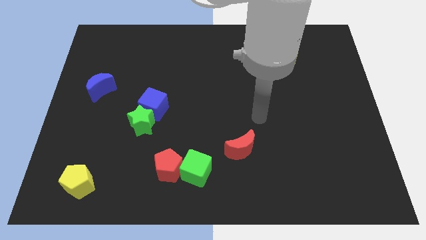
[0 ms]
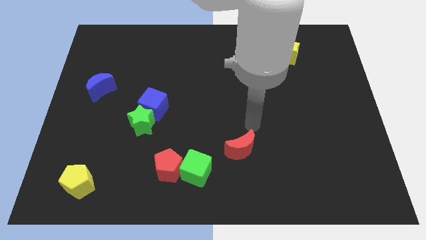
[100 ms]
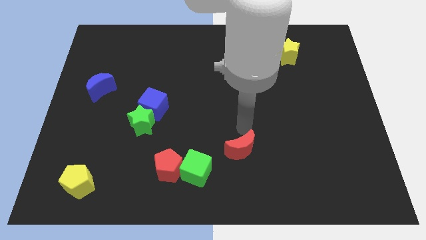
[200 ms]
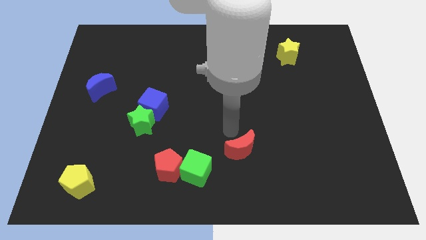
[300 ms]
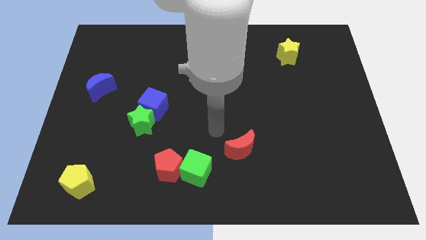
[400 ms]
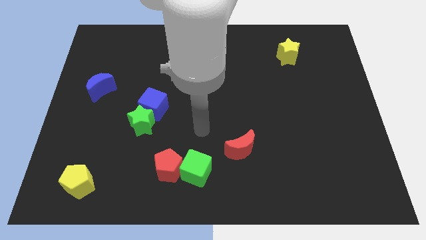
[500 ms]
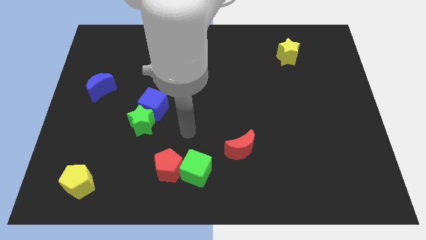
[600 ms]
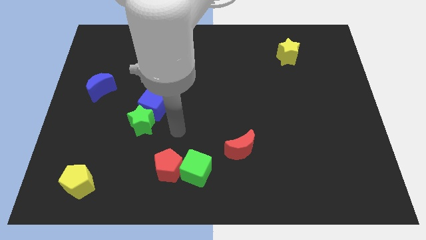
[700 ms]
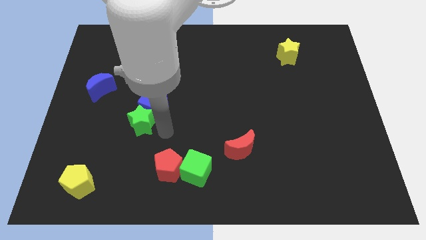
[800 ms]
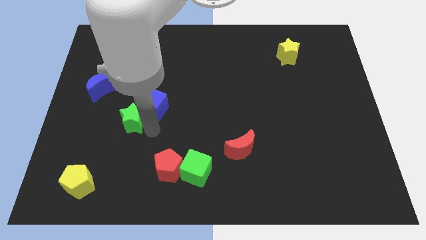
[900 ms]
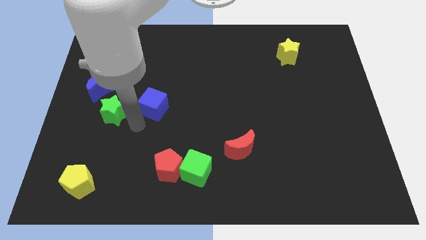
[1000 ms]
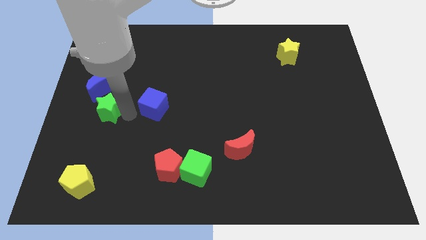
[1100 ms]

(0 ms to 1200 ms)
pull the blue cube apart from the green star

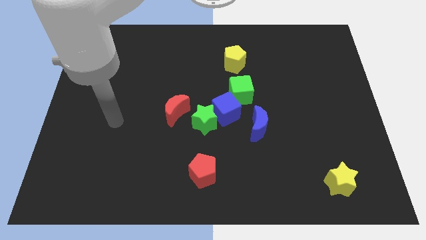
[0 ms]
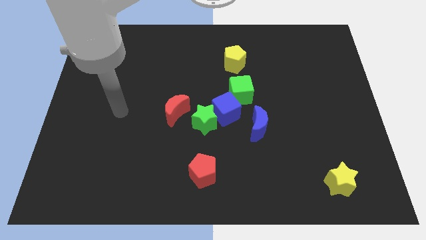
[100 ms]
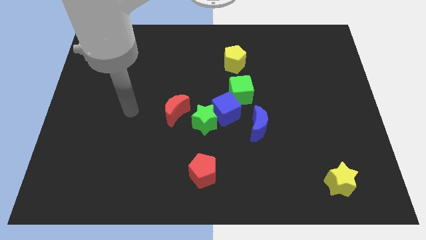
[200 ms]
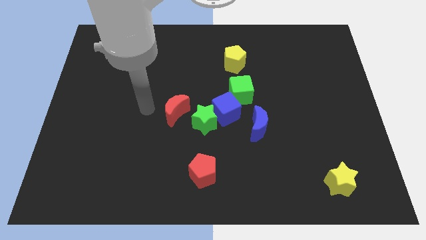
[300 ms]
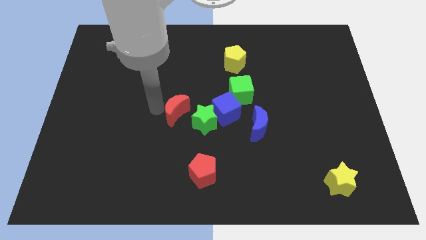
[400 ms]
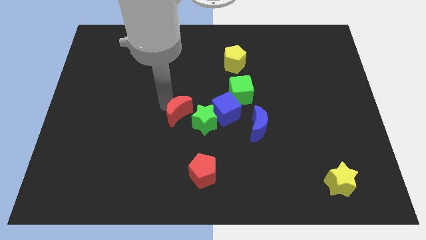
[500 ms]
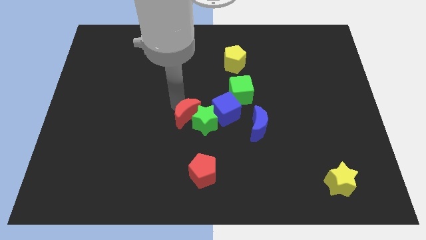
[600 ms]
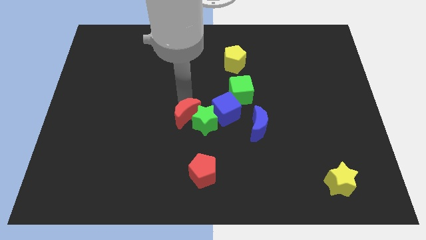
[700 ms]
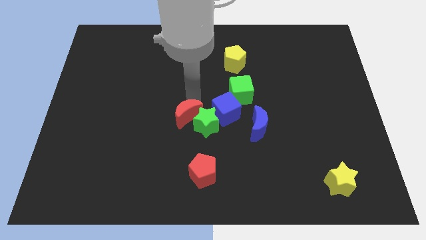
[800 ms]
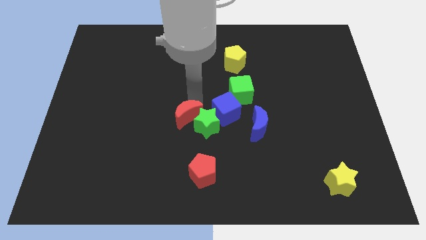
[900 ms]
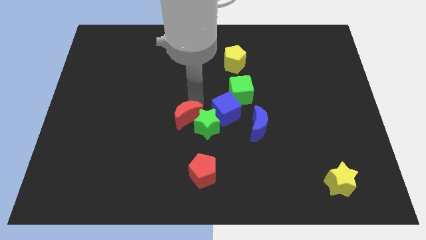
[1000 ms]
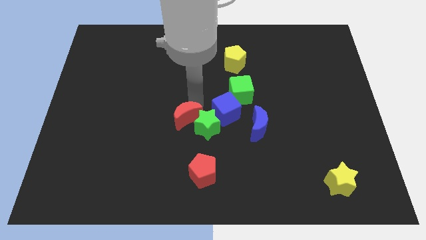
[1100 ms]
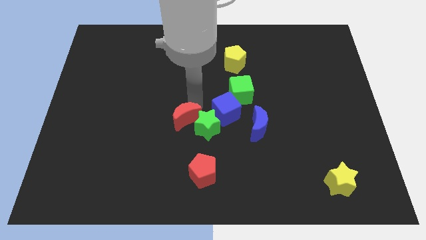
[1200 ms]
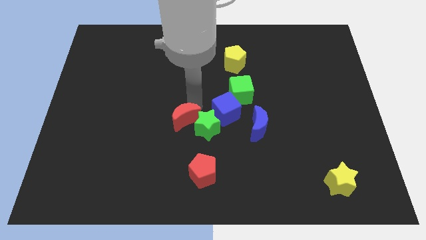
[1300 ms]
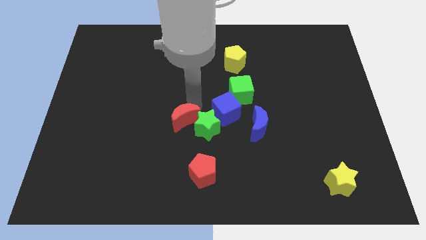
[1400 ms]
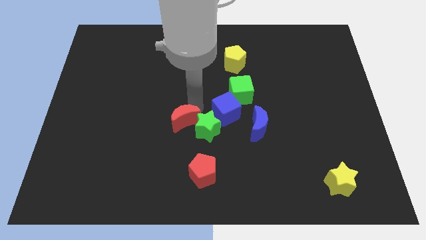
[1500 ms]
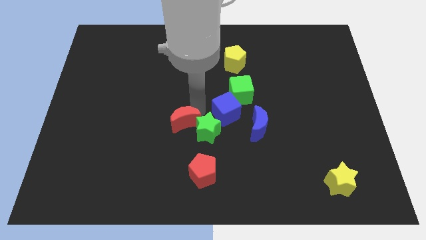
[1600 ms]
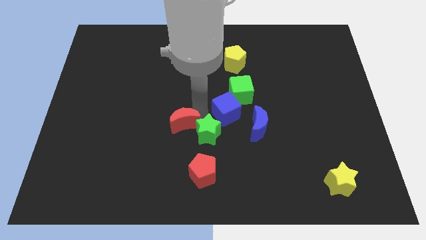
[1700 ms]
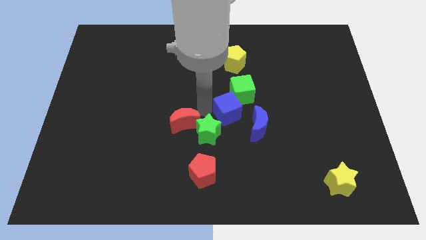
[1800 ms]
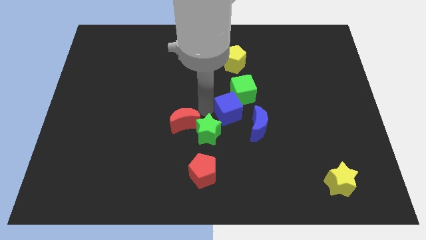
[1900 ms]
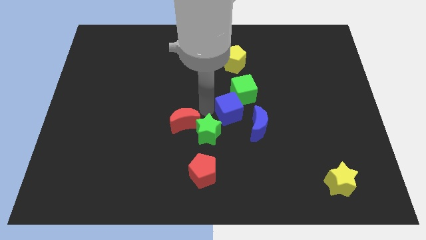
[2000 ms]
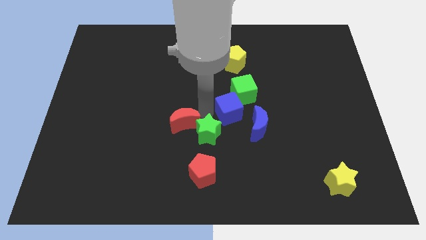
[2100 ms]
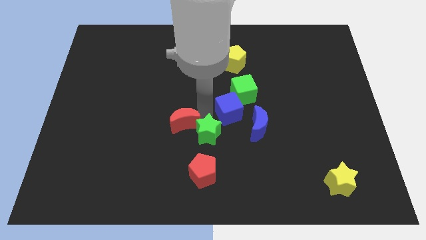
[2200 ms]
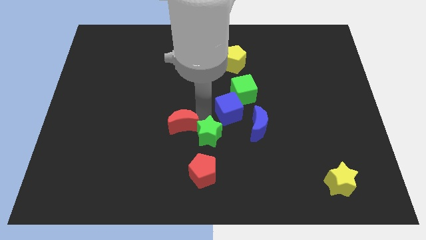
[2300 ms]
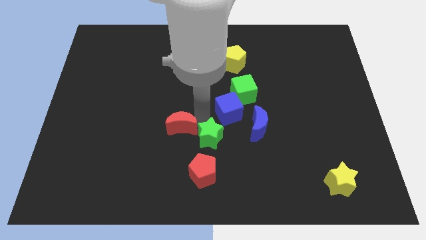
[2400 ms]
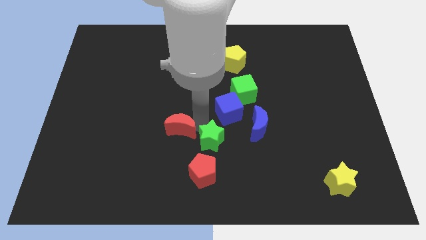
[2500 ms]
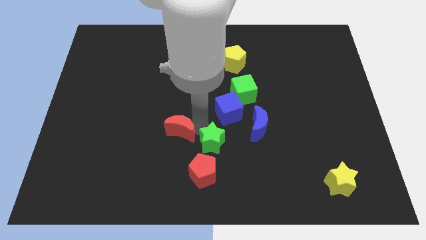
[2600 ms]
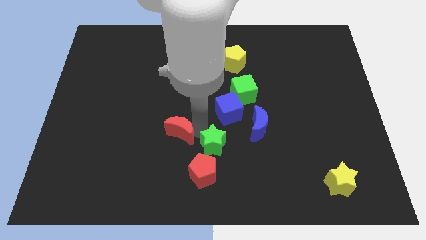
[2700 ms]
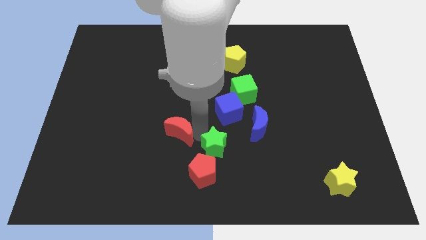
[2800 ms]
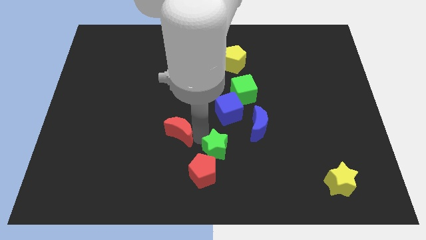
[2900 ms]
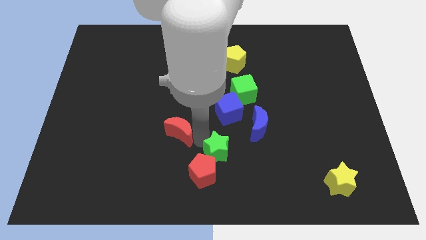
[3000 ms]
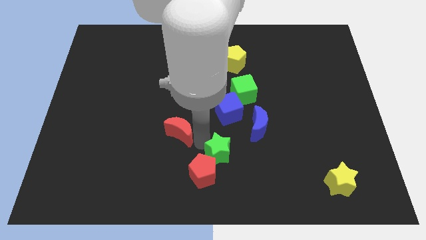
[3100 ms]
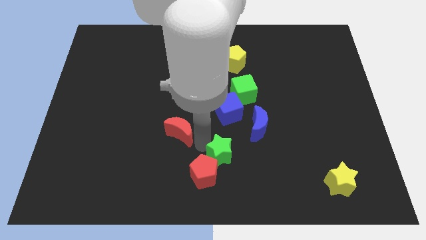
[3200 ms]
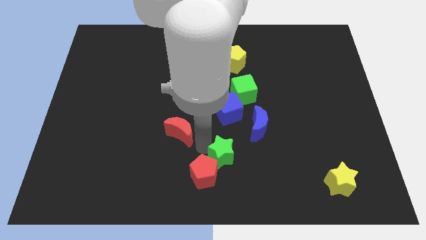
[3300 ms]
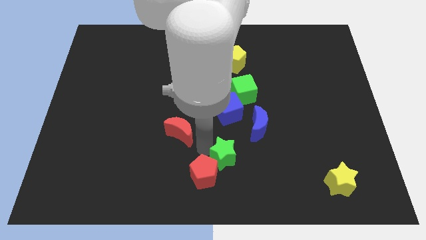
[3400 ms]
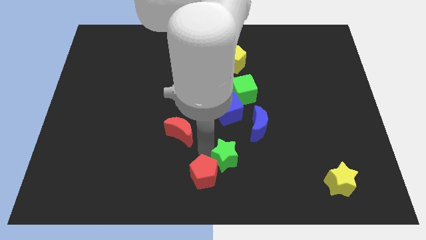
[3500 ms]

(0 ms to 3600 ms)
pull the green star apart from the blue cube and red moon

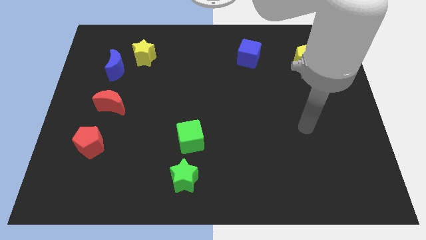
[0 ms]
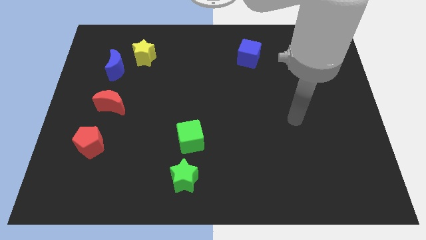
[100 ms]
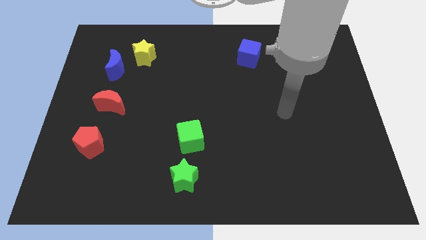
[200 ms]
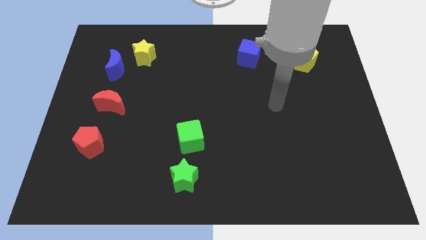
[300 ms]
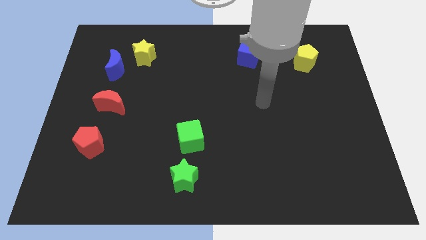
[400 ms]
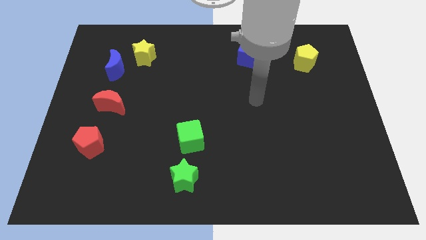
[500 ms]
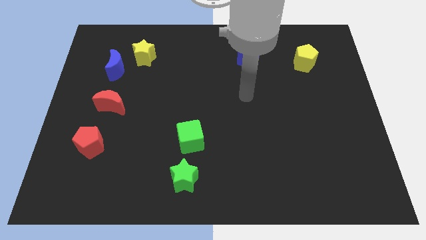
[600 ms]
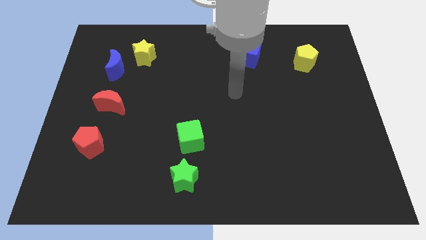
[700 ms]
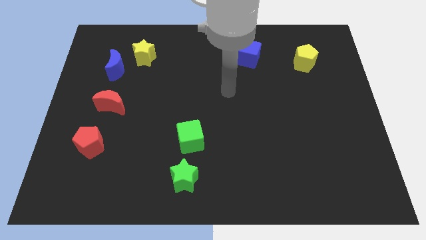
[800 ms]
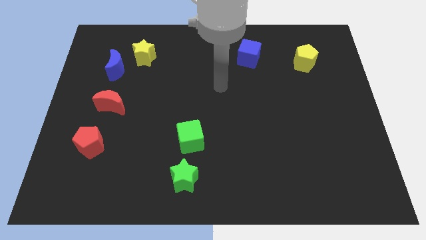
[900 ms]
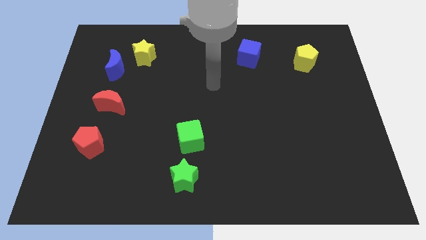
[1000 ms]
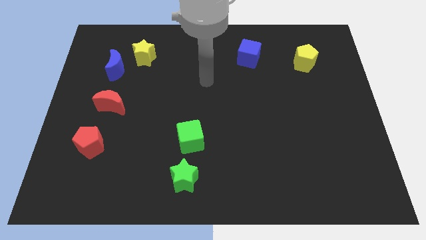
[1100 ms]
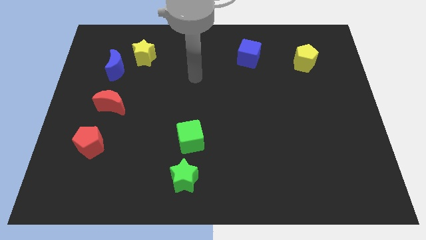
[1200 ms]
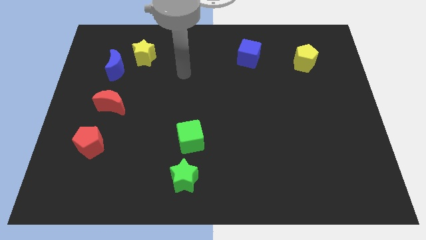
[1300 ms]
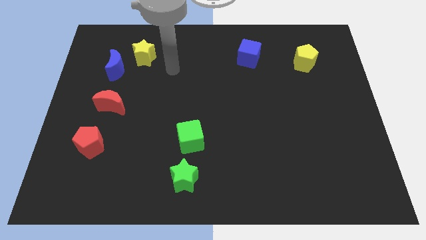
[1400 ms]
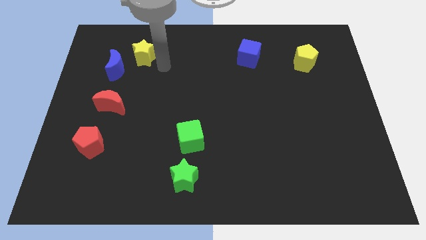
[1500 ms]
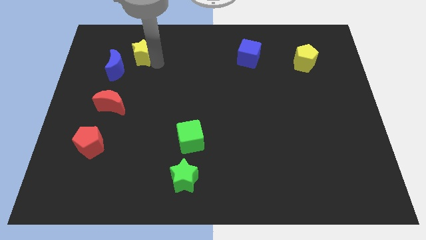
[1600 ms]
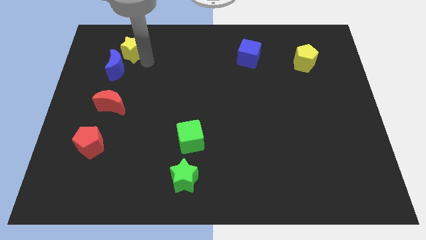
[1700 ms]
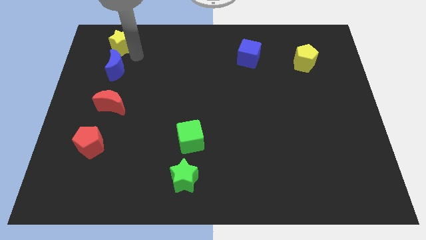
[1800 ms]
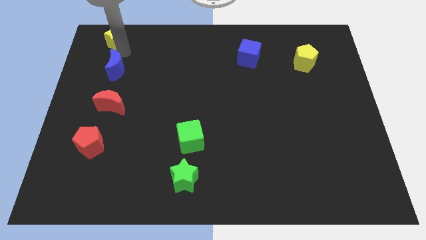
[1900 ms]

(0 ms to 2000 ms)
move the blue moon away from the yellow star

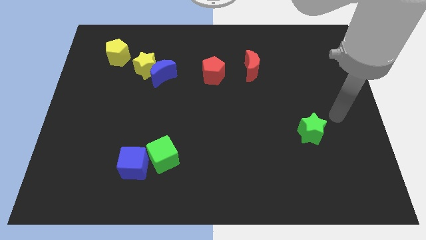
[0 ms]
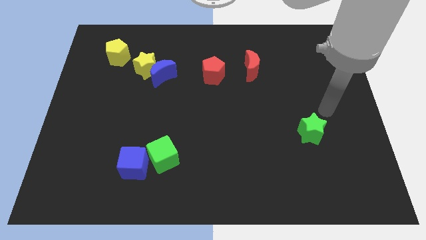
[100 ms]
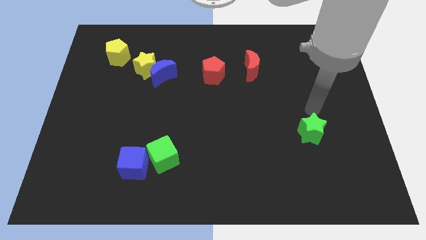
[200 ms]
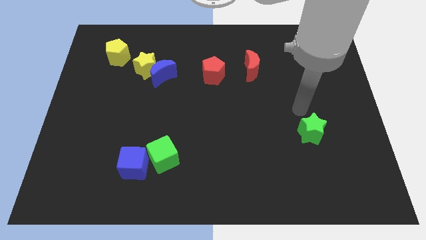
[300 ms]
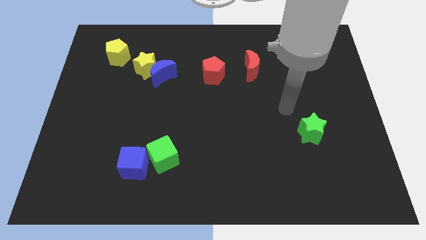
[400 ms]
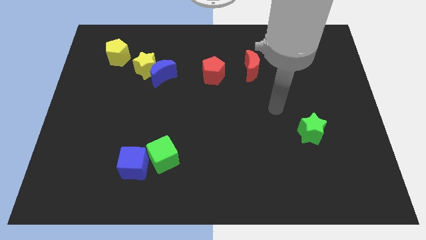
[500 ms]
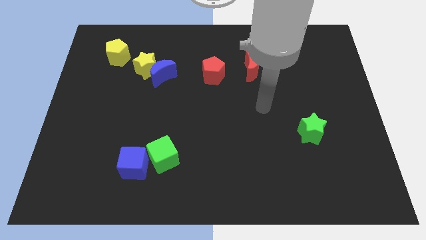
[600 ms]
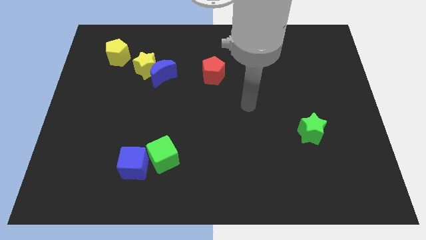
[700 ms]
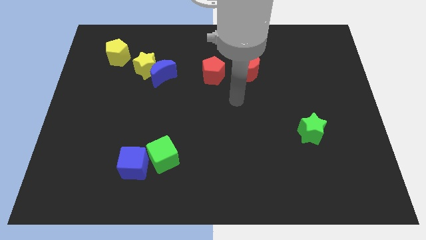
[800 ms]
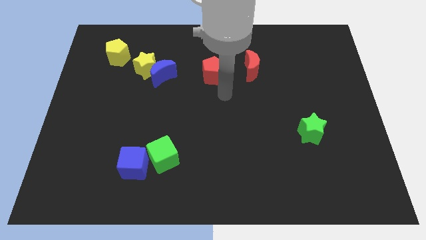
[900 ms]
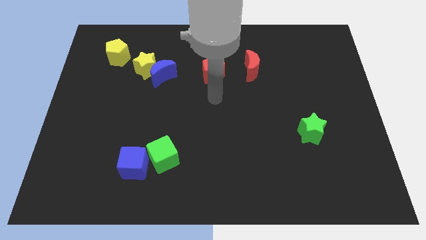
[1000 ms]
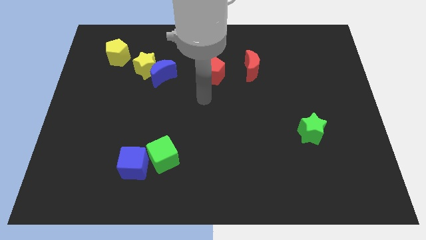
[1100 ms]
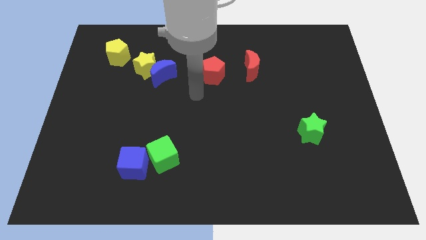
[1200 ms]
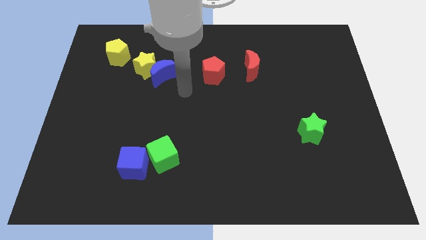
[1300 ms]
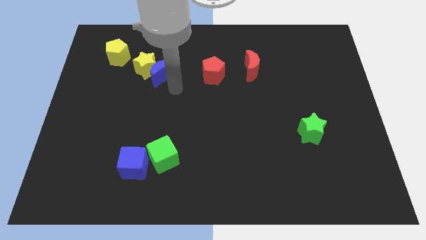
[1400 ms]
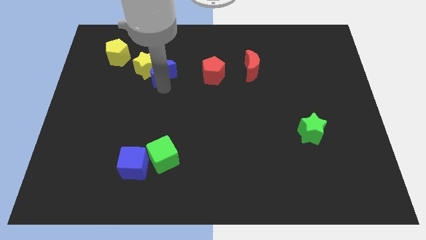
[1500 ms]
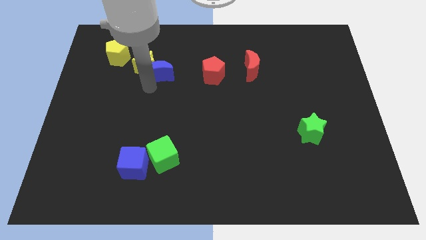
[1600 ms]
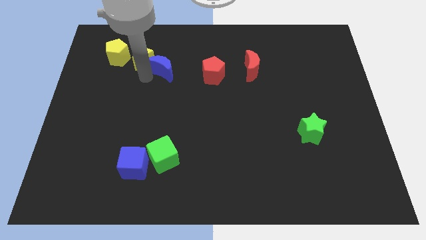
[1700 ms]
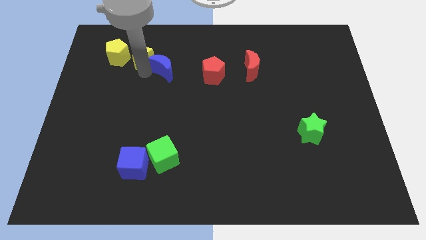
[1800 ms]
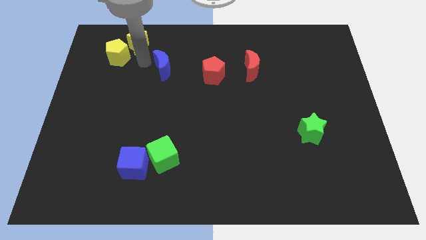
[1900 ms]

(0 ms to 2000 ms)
separate the blue moon from the yellow star

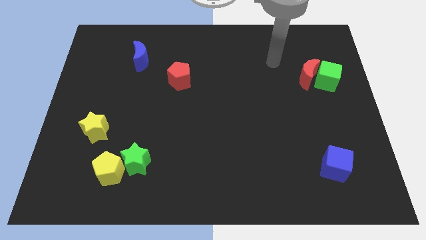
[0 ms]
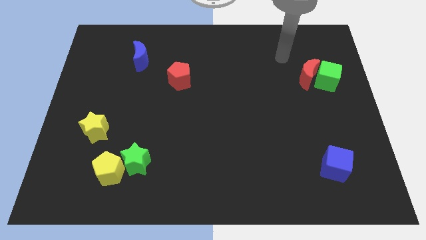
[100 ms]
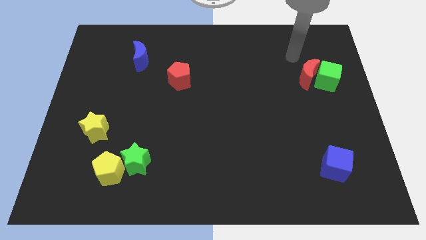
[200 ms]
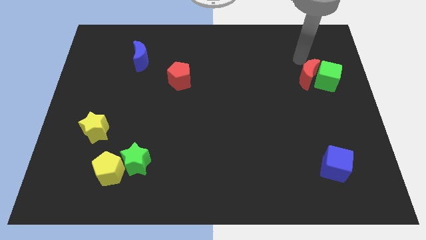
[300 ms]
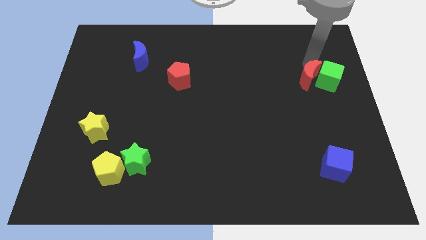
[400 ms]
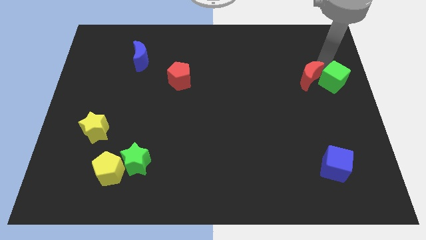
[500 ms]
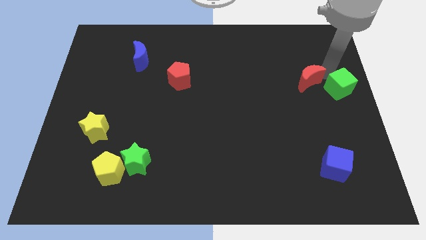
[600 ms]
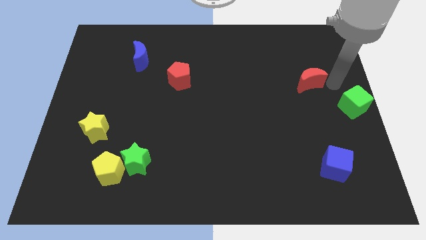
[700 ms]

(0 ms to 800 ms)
move the red moon away from the green cube
